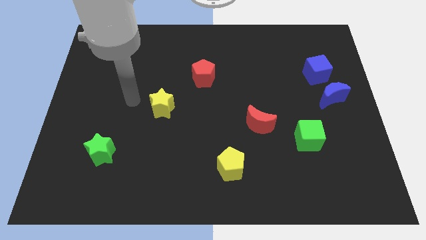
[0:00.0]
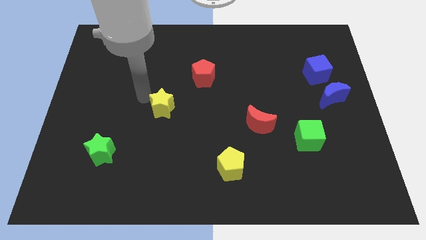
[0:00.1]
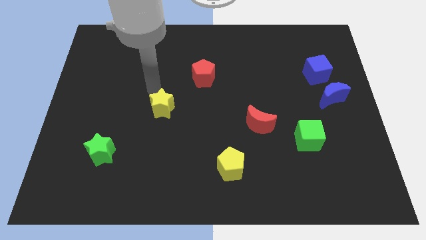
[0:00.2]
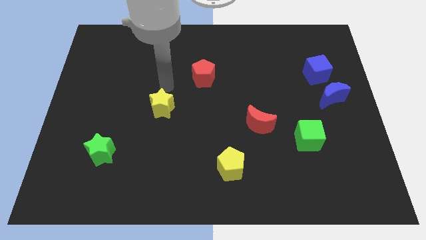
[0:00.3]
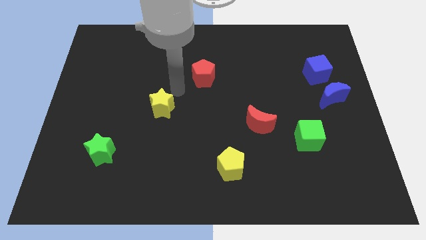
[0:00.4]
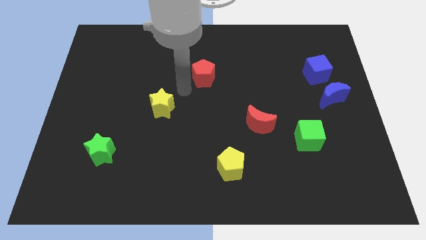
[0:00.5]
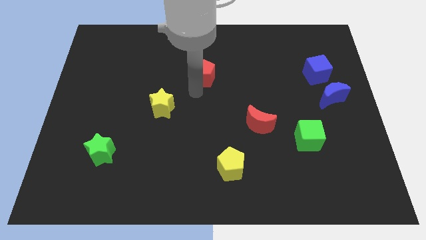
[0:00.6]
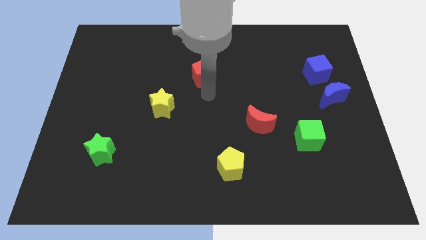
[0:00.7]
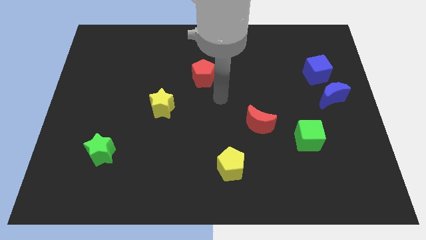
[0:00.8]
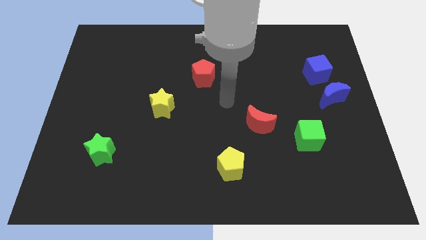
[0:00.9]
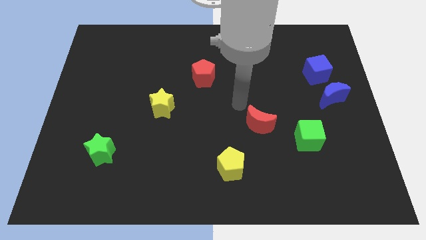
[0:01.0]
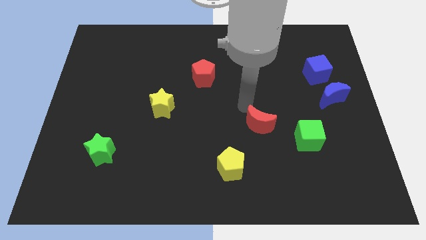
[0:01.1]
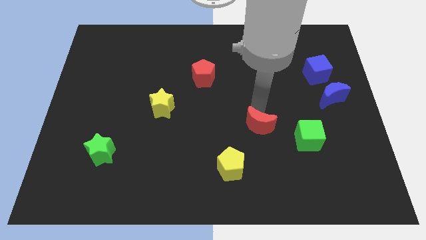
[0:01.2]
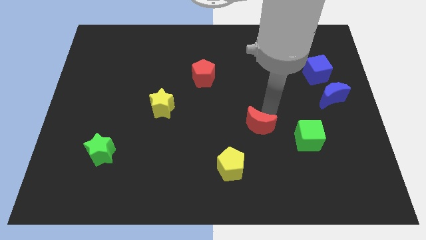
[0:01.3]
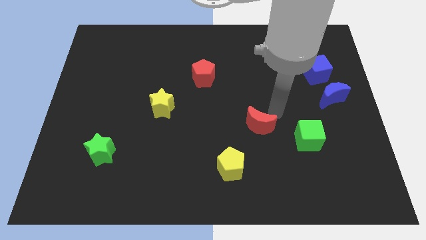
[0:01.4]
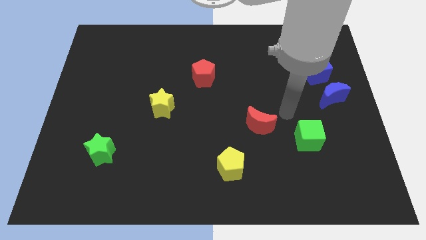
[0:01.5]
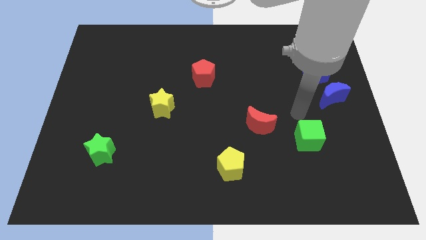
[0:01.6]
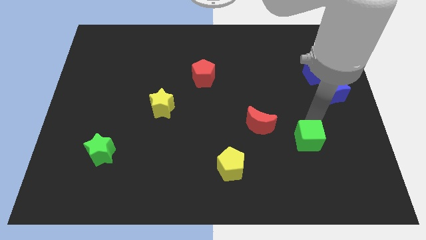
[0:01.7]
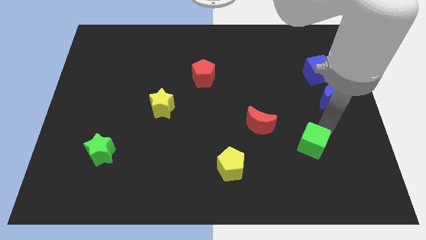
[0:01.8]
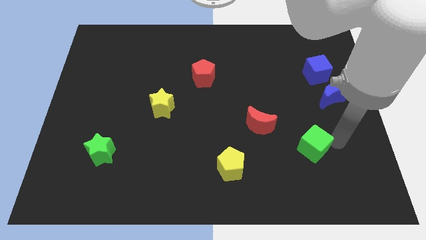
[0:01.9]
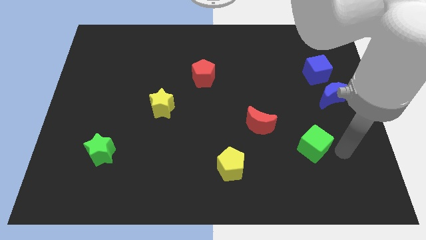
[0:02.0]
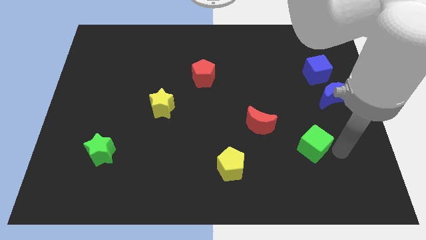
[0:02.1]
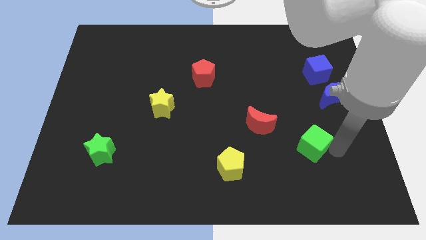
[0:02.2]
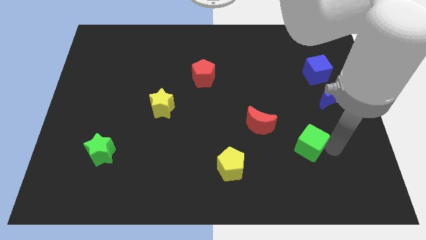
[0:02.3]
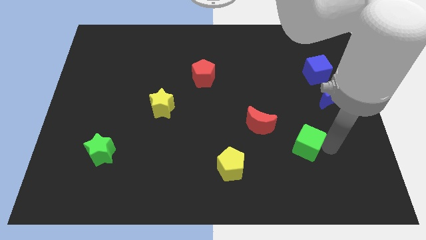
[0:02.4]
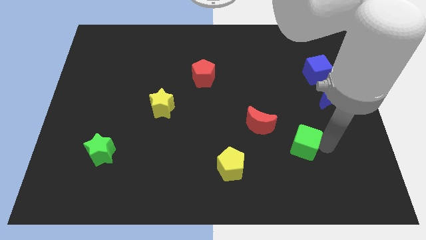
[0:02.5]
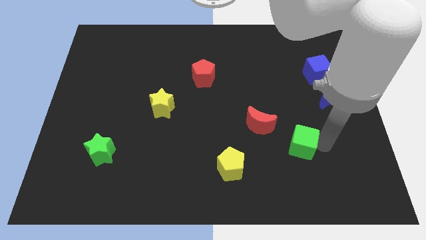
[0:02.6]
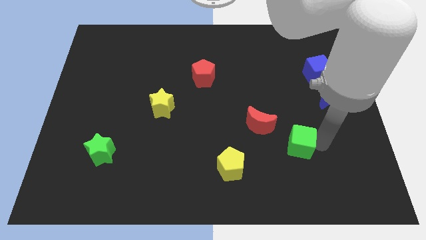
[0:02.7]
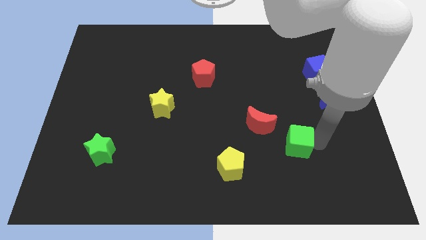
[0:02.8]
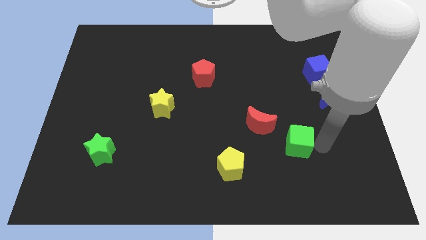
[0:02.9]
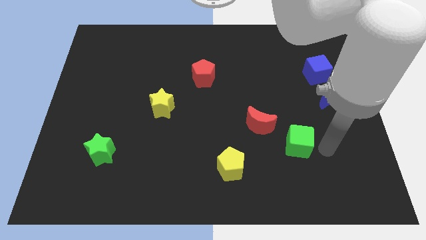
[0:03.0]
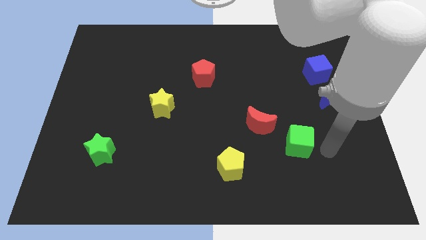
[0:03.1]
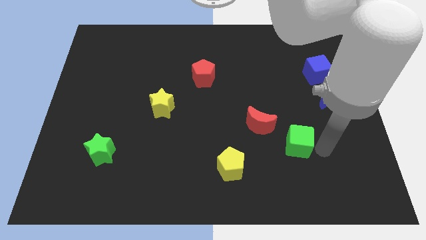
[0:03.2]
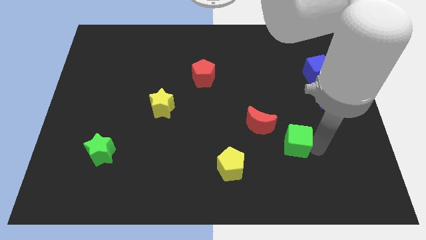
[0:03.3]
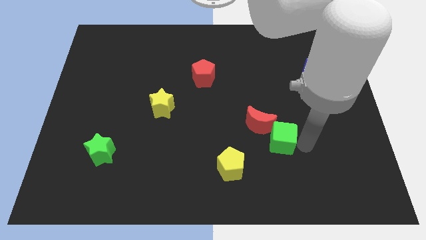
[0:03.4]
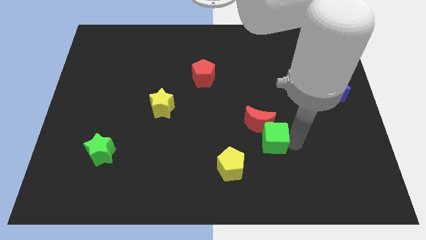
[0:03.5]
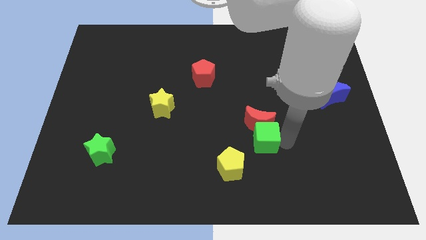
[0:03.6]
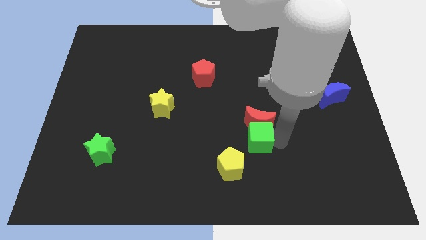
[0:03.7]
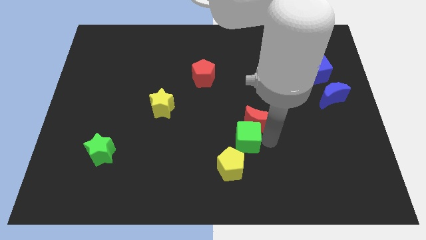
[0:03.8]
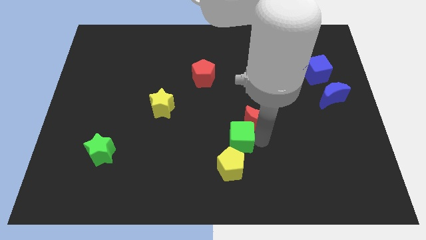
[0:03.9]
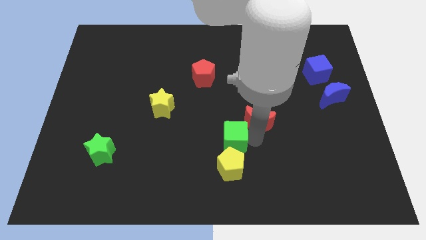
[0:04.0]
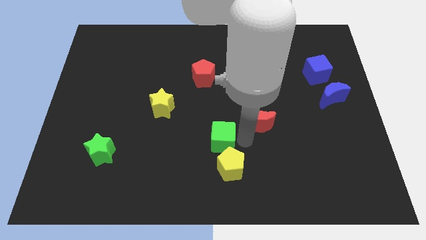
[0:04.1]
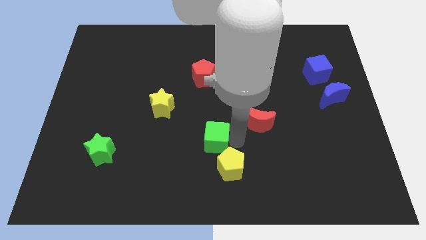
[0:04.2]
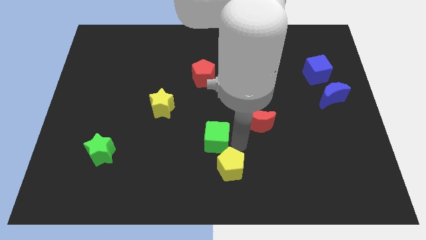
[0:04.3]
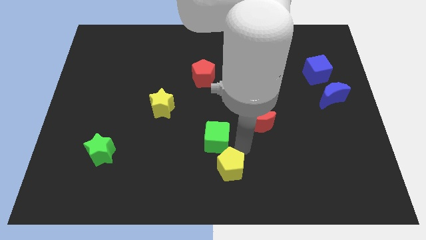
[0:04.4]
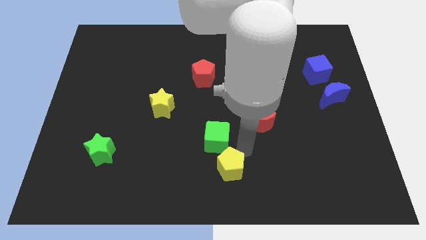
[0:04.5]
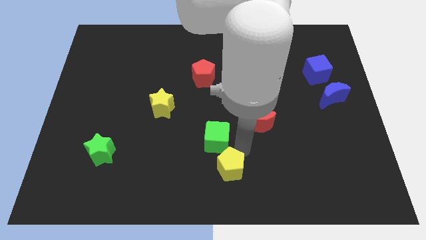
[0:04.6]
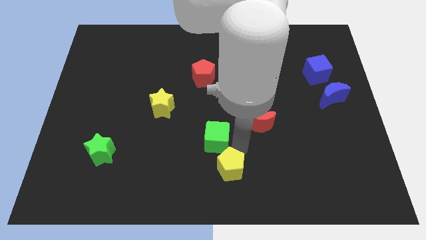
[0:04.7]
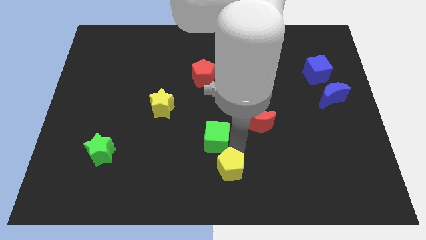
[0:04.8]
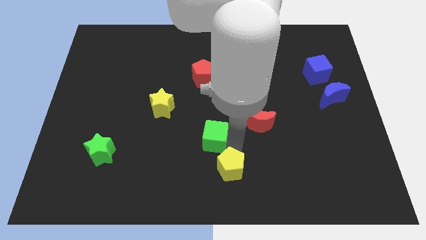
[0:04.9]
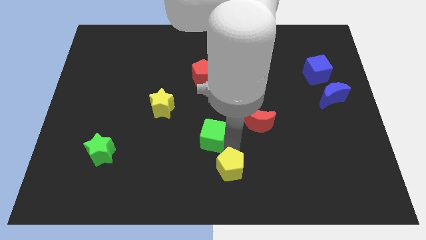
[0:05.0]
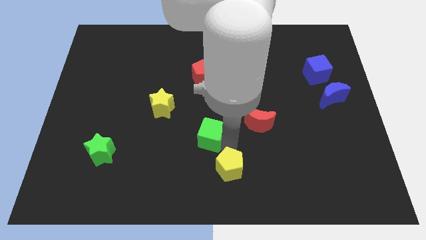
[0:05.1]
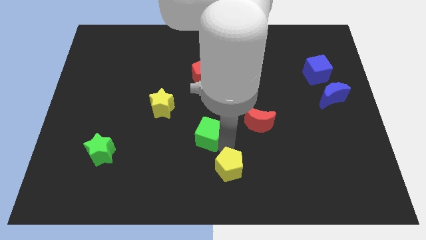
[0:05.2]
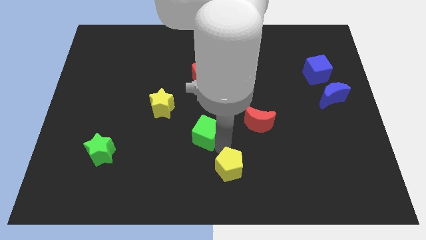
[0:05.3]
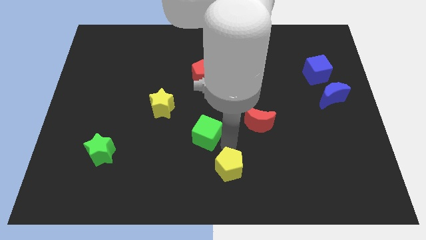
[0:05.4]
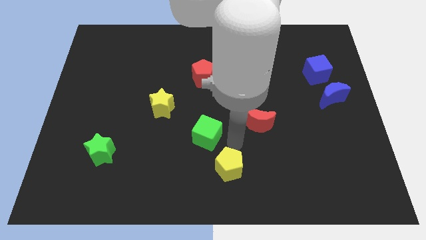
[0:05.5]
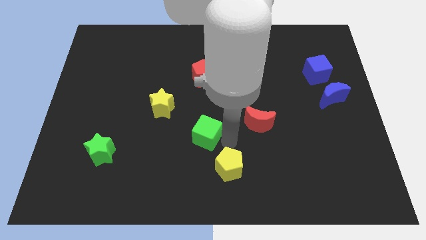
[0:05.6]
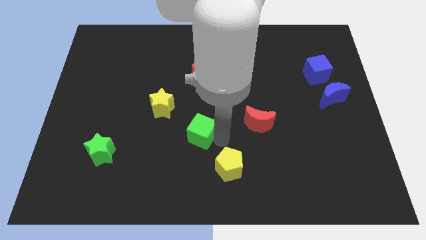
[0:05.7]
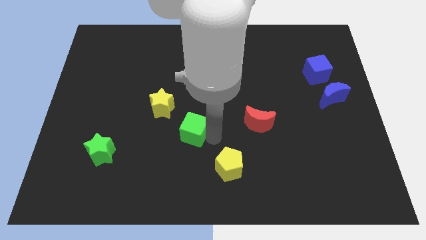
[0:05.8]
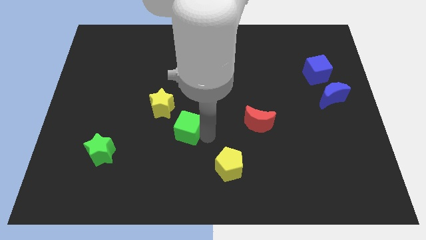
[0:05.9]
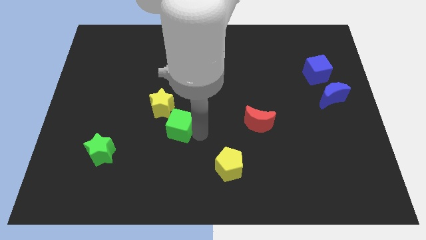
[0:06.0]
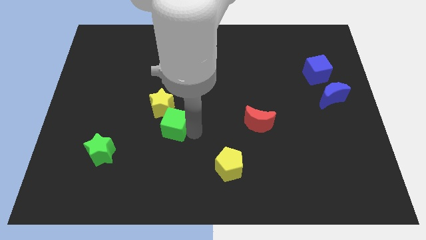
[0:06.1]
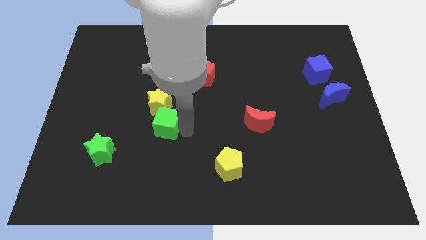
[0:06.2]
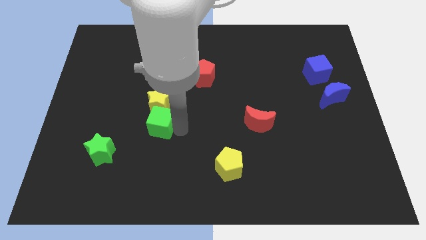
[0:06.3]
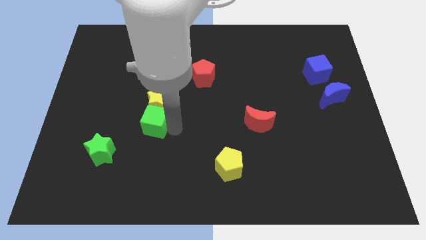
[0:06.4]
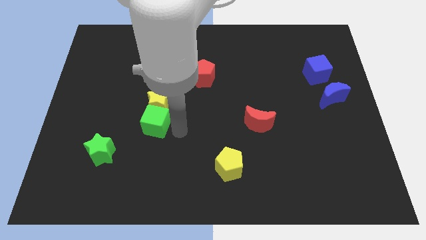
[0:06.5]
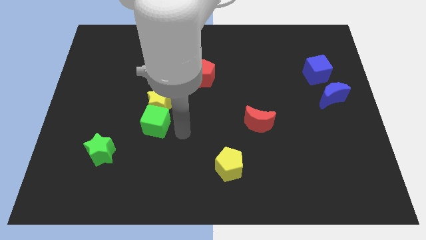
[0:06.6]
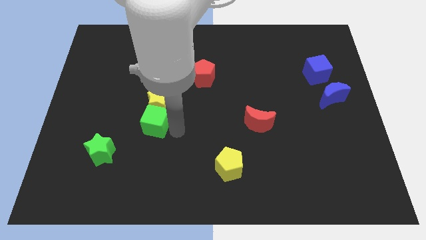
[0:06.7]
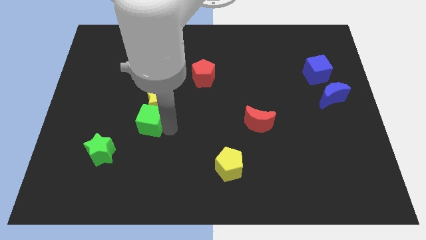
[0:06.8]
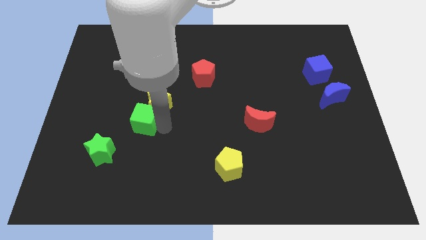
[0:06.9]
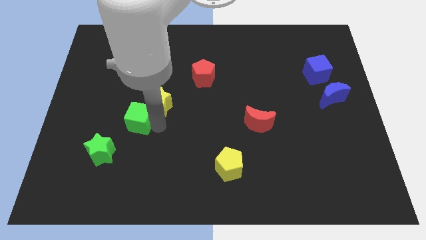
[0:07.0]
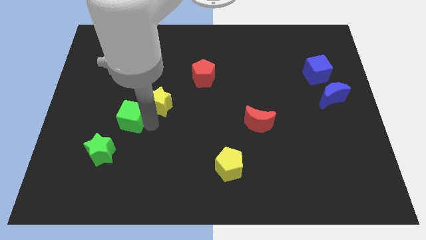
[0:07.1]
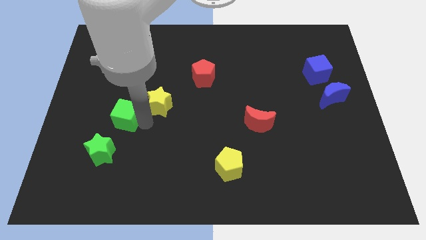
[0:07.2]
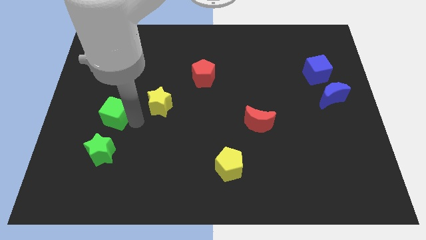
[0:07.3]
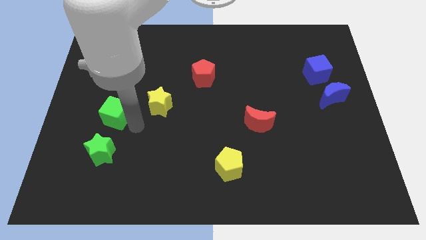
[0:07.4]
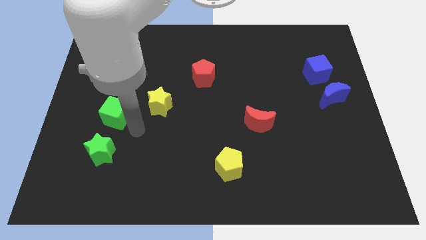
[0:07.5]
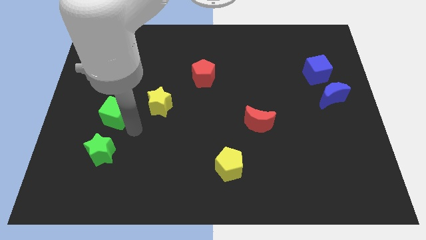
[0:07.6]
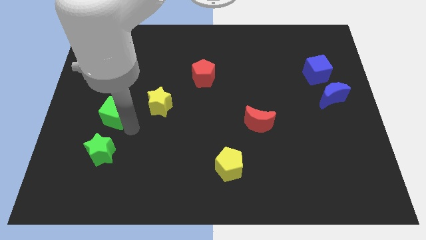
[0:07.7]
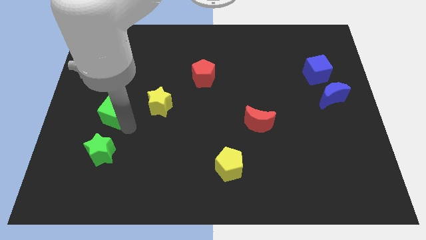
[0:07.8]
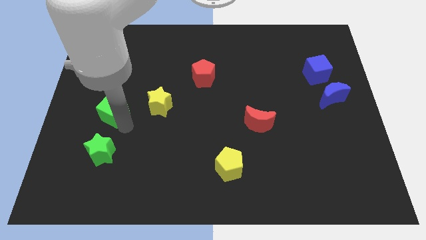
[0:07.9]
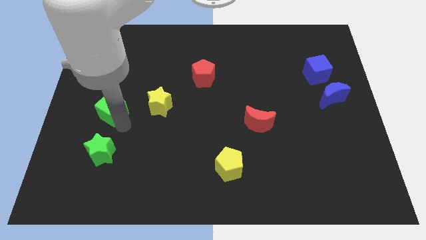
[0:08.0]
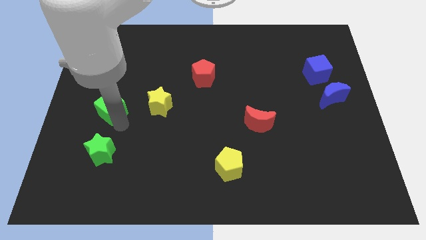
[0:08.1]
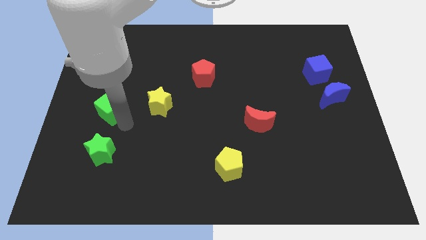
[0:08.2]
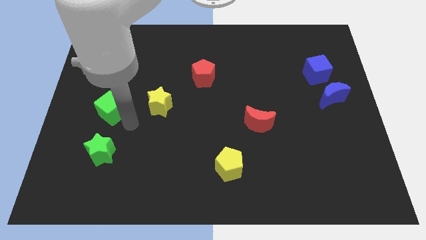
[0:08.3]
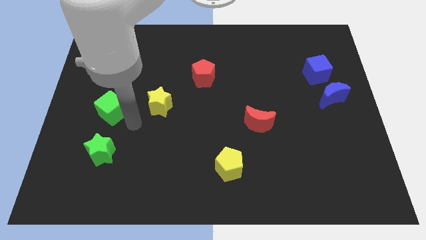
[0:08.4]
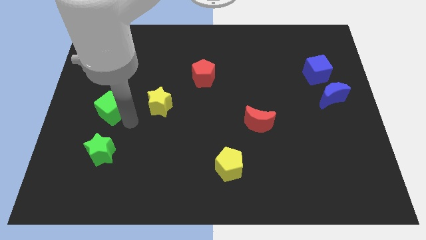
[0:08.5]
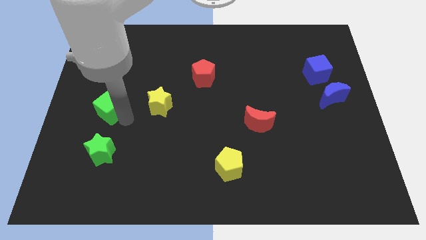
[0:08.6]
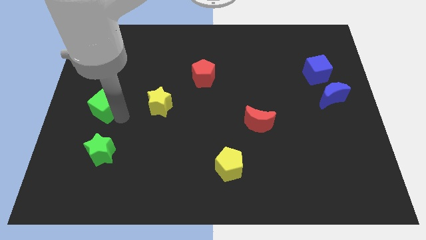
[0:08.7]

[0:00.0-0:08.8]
push the green cube to the center left
